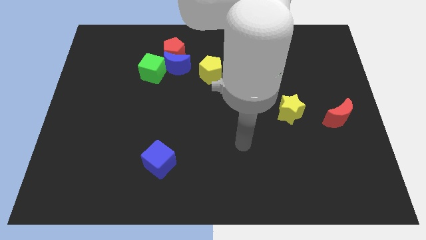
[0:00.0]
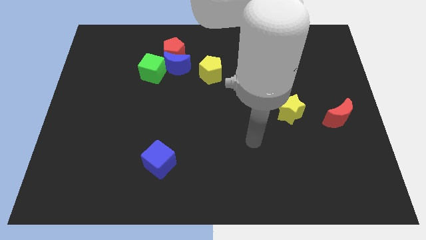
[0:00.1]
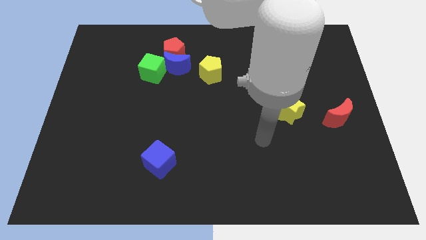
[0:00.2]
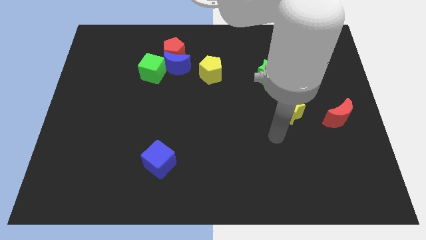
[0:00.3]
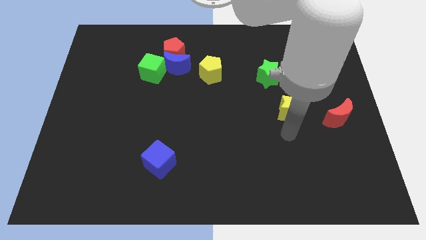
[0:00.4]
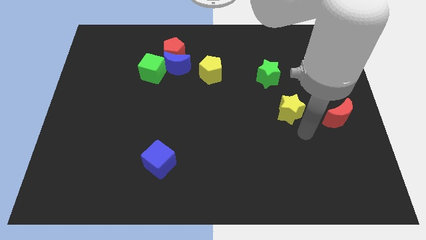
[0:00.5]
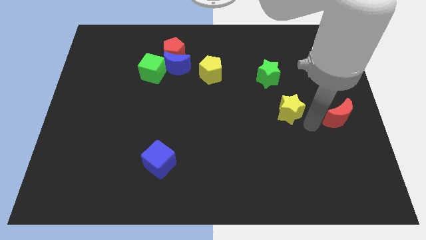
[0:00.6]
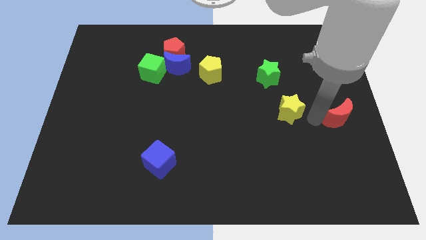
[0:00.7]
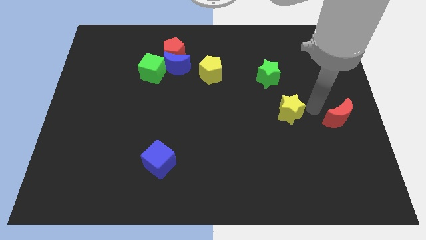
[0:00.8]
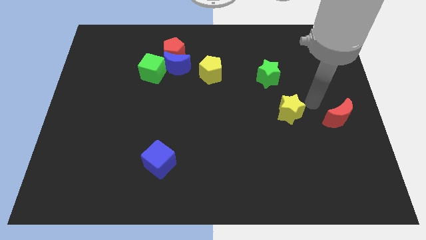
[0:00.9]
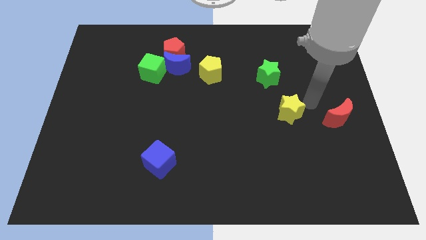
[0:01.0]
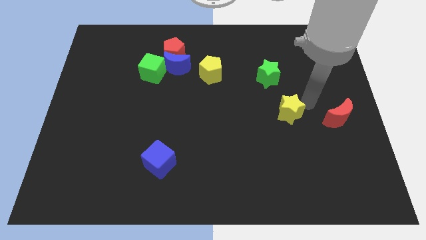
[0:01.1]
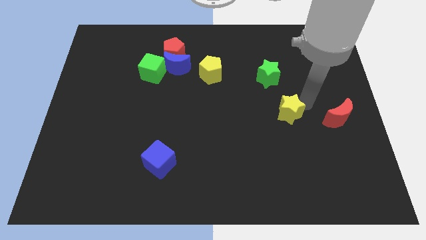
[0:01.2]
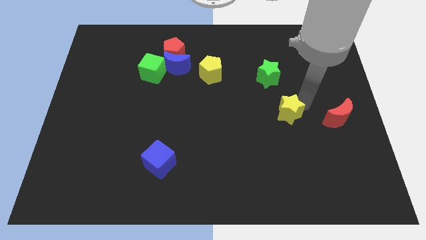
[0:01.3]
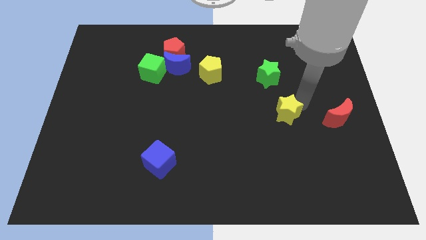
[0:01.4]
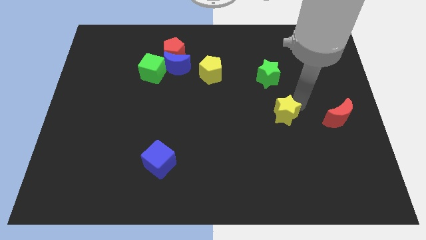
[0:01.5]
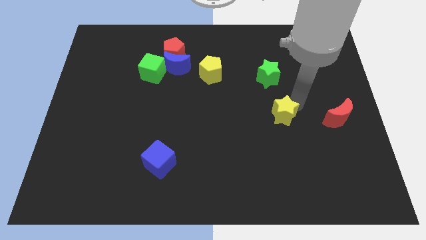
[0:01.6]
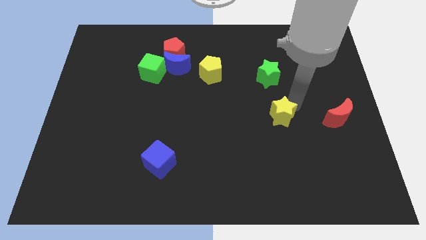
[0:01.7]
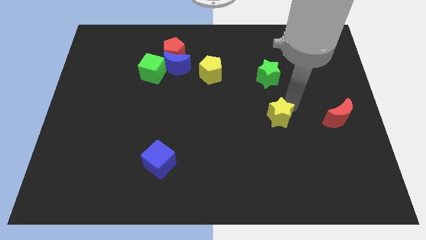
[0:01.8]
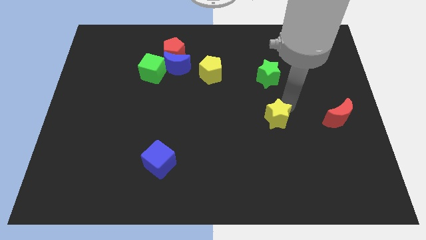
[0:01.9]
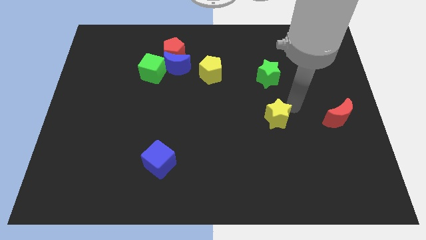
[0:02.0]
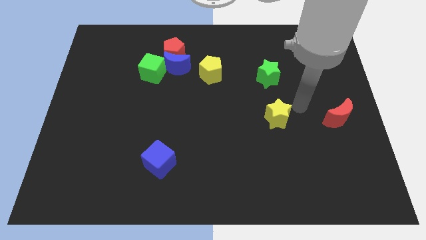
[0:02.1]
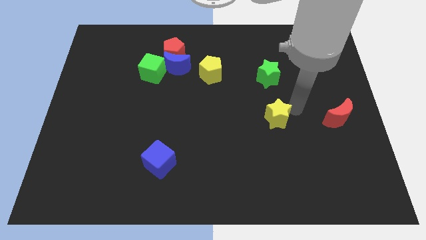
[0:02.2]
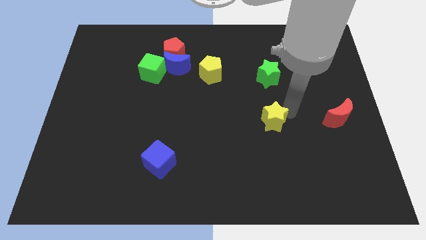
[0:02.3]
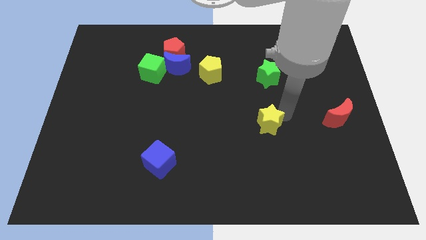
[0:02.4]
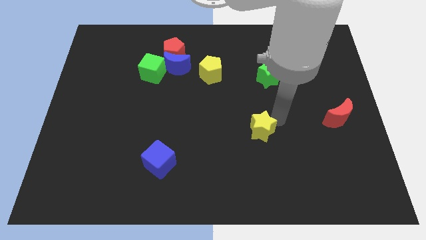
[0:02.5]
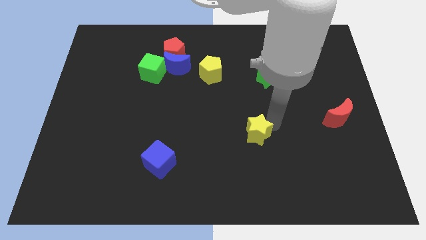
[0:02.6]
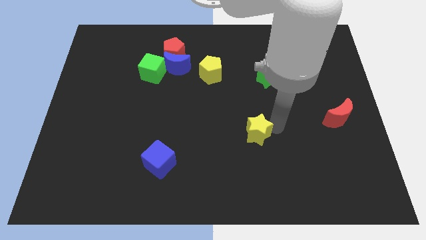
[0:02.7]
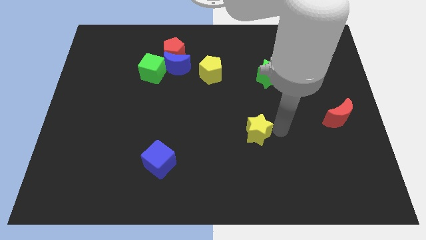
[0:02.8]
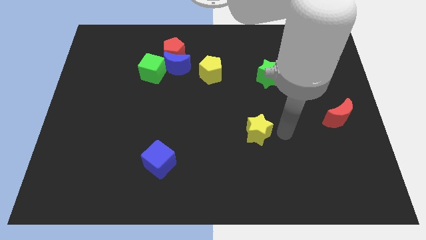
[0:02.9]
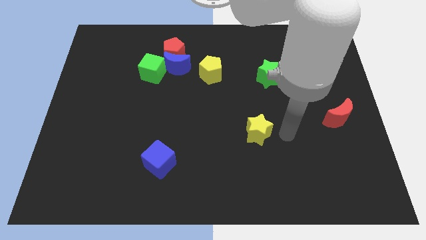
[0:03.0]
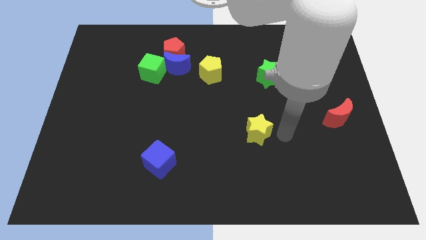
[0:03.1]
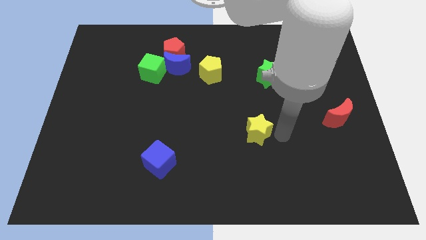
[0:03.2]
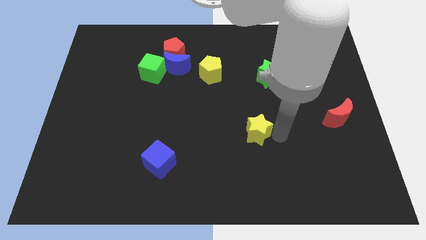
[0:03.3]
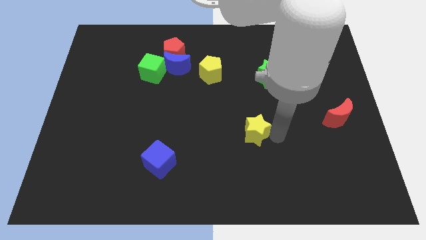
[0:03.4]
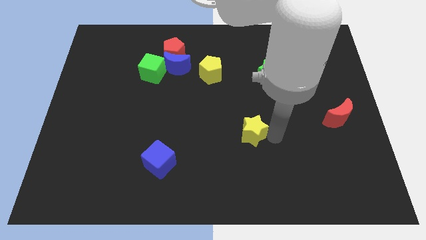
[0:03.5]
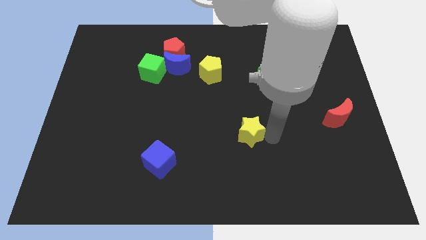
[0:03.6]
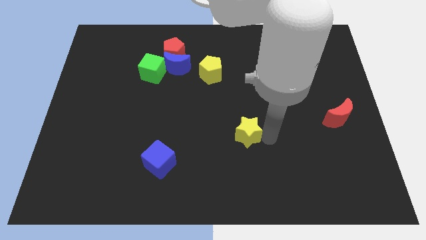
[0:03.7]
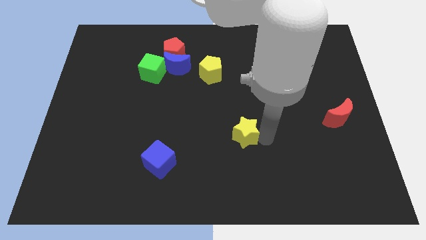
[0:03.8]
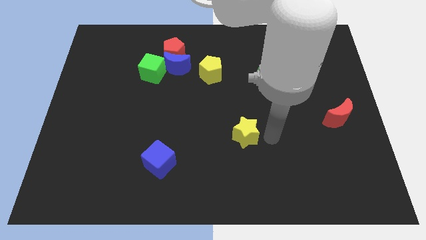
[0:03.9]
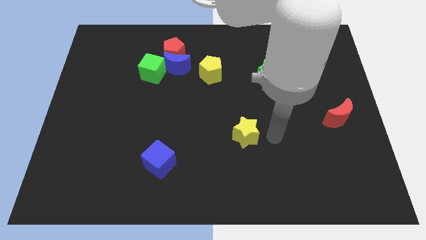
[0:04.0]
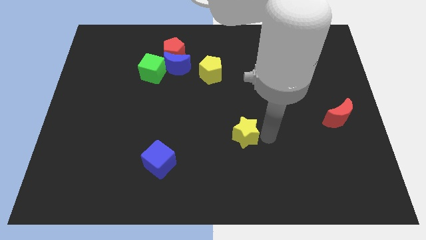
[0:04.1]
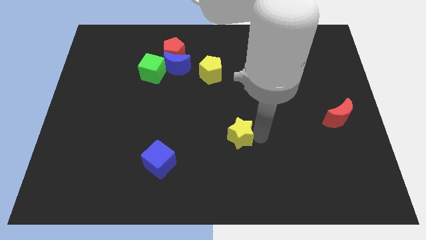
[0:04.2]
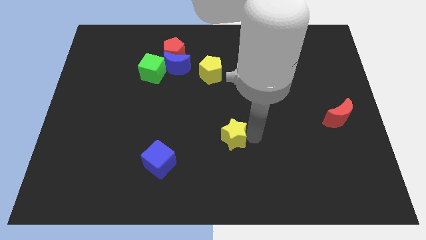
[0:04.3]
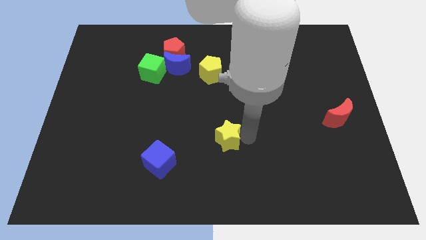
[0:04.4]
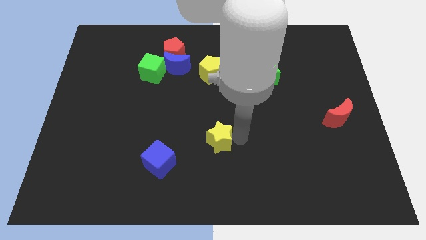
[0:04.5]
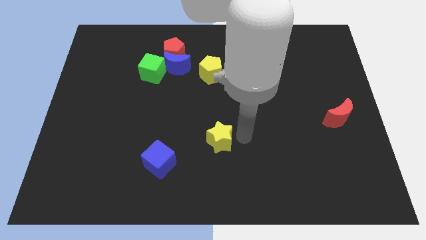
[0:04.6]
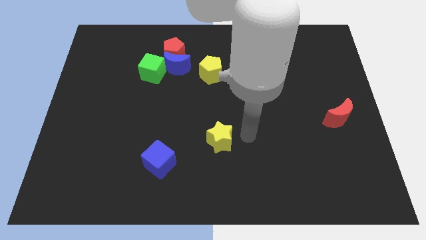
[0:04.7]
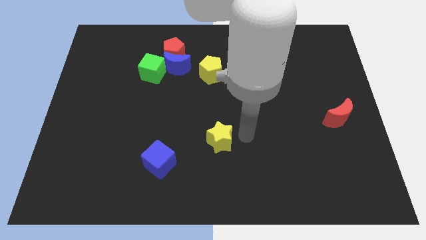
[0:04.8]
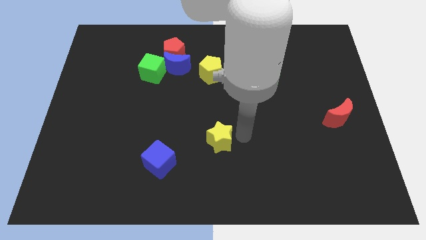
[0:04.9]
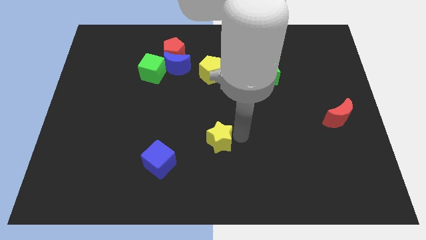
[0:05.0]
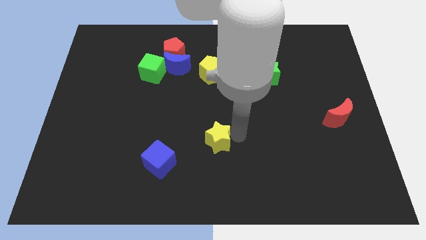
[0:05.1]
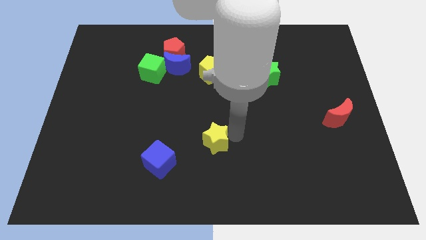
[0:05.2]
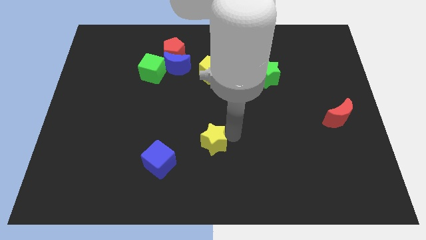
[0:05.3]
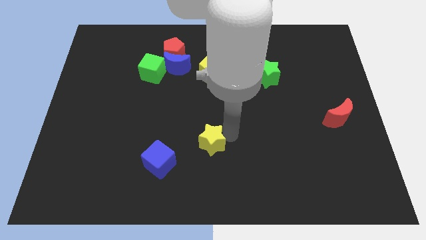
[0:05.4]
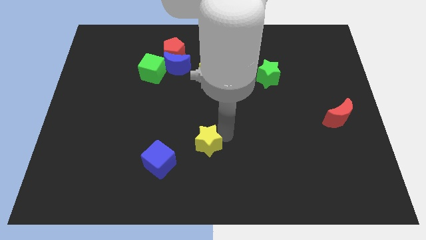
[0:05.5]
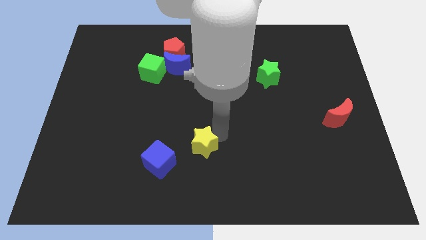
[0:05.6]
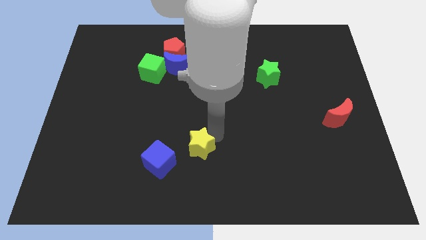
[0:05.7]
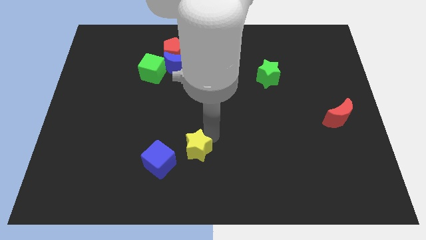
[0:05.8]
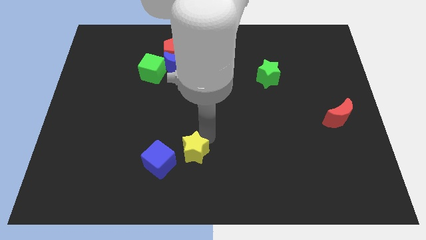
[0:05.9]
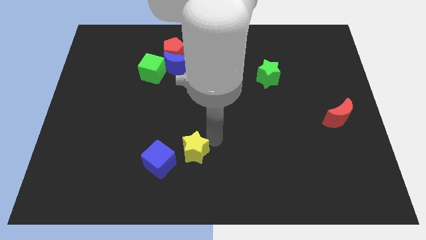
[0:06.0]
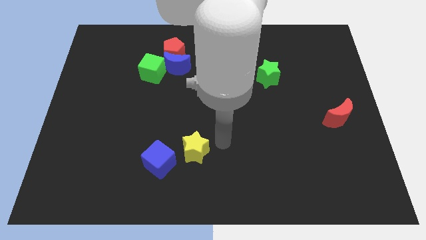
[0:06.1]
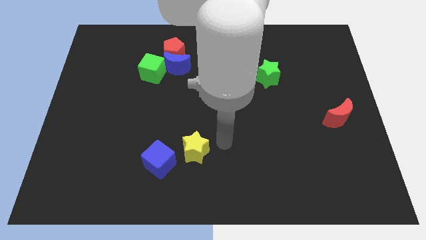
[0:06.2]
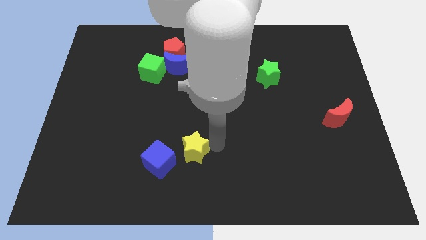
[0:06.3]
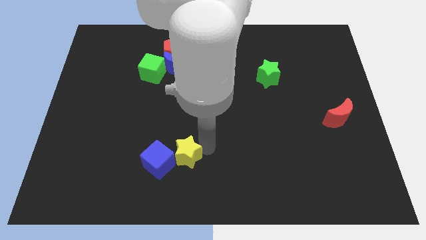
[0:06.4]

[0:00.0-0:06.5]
put the yellow star close to the blue cube
